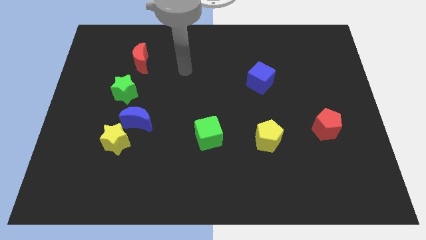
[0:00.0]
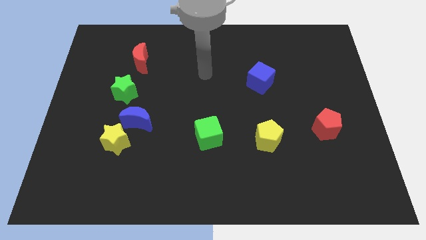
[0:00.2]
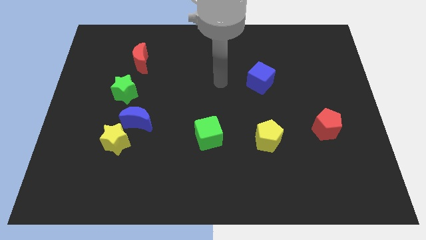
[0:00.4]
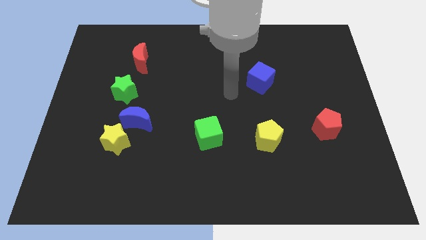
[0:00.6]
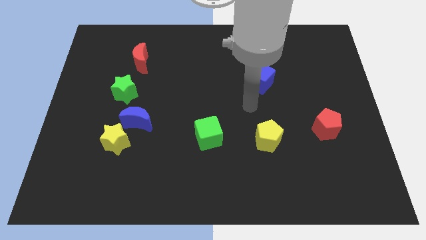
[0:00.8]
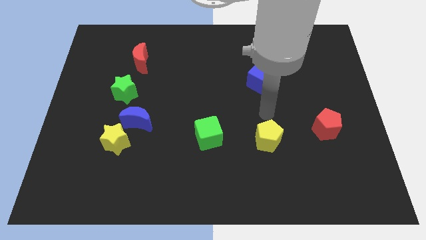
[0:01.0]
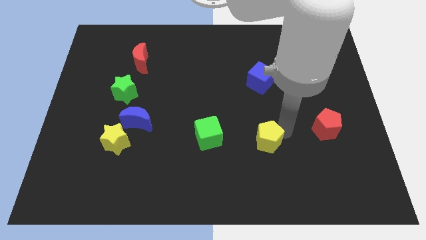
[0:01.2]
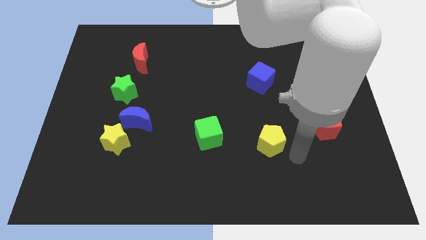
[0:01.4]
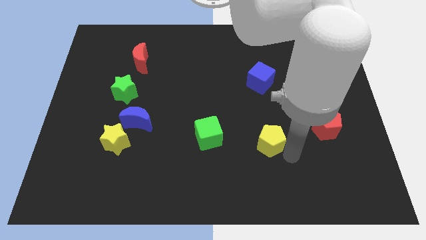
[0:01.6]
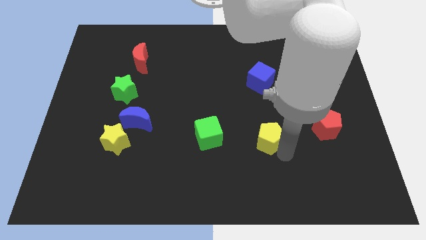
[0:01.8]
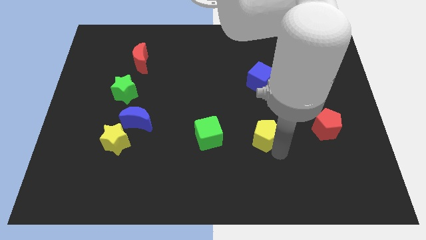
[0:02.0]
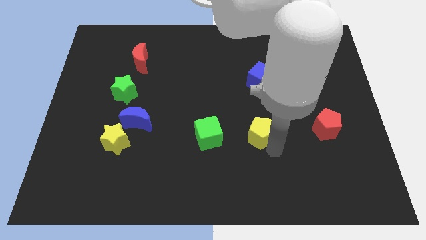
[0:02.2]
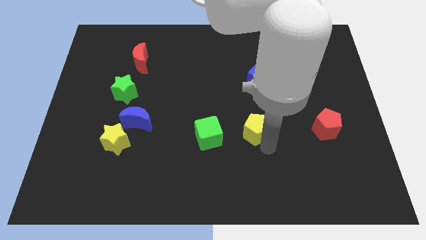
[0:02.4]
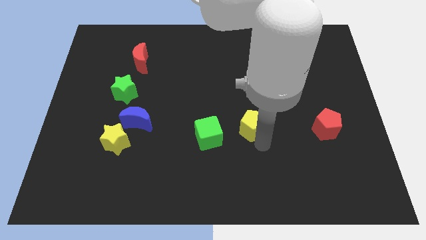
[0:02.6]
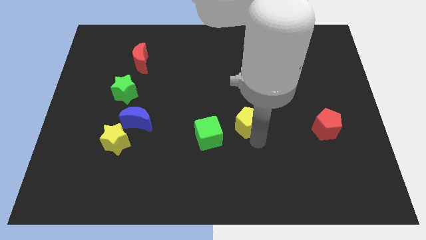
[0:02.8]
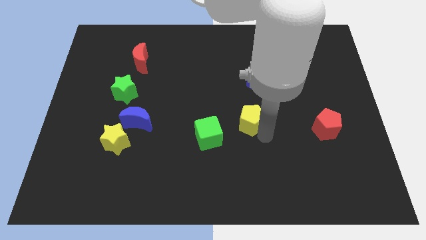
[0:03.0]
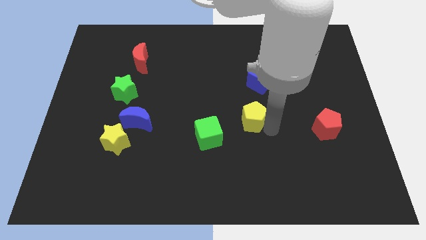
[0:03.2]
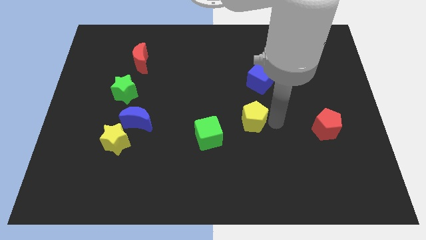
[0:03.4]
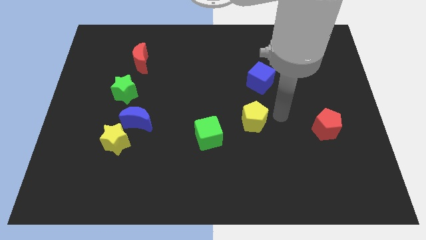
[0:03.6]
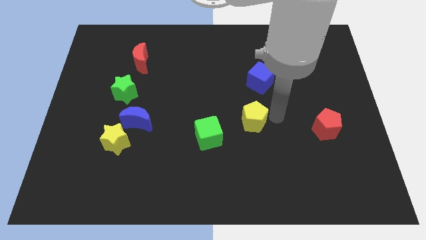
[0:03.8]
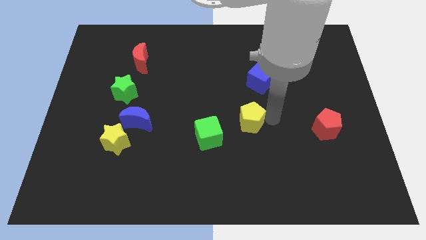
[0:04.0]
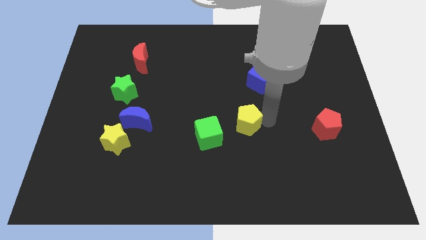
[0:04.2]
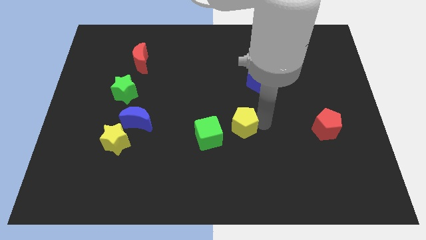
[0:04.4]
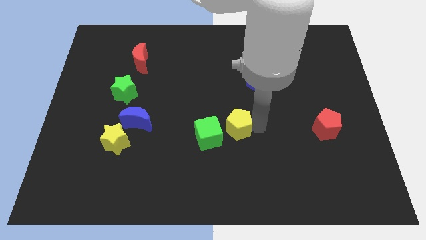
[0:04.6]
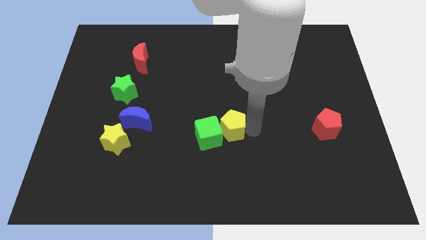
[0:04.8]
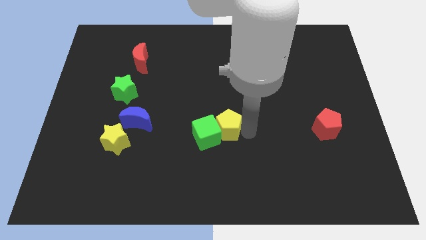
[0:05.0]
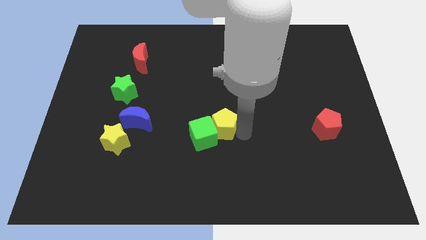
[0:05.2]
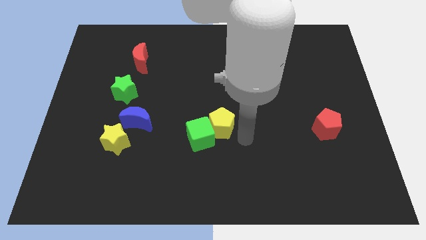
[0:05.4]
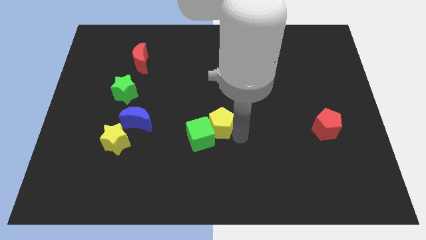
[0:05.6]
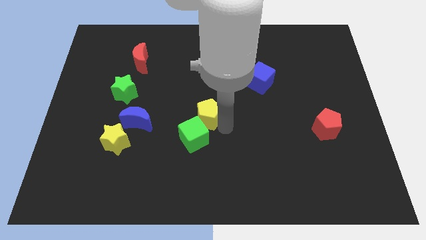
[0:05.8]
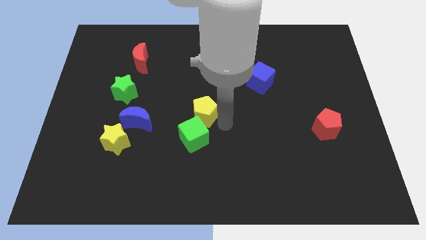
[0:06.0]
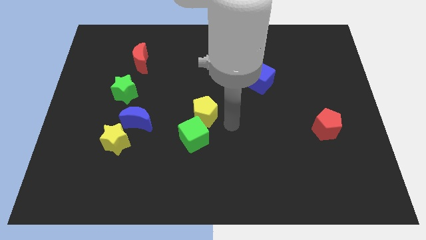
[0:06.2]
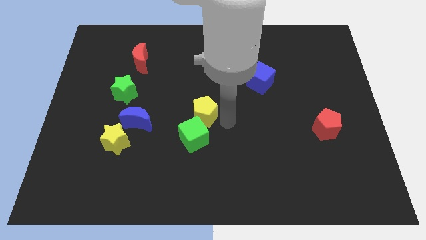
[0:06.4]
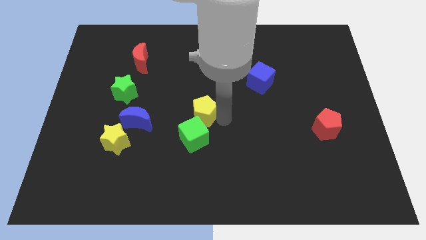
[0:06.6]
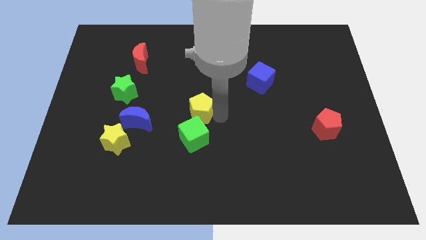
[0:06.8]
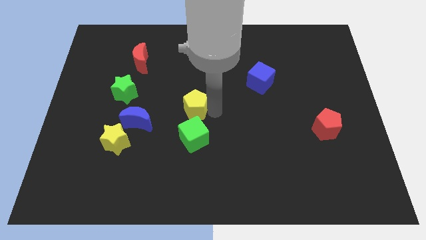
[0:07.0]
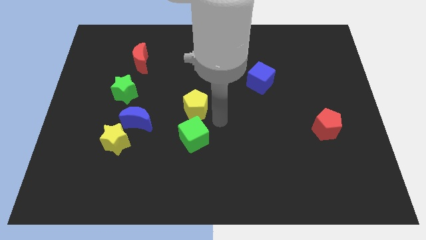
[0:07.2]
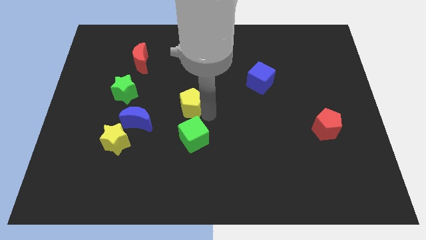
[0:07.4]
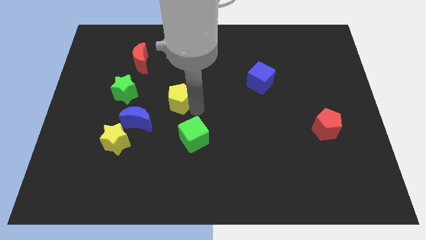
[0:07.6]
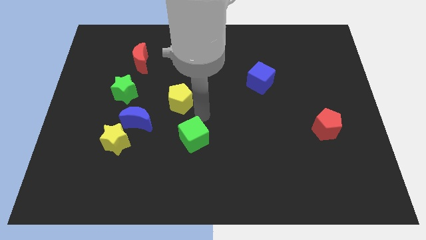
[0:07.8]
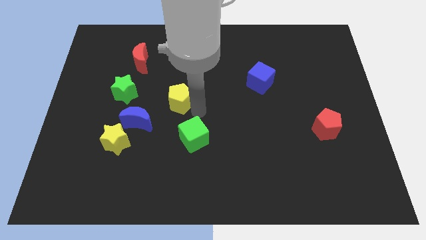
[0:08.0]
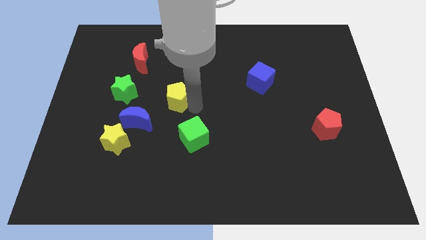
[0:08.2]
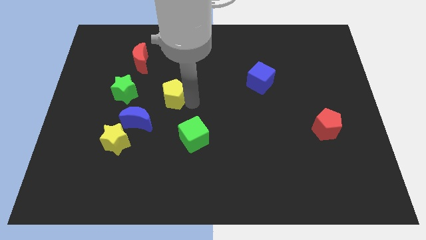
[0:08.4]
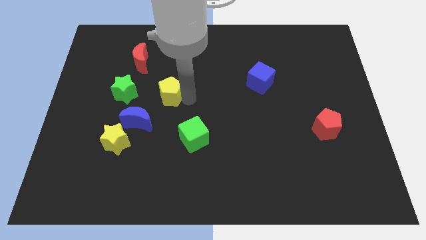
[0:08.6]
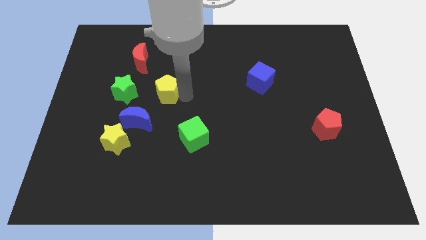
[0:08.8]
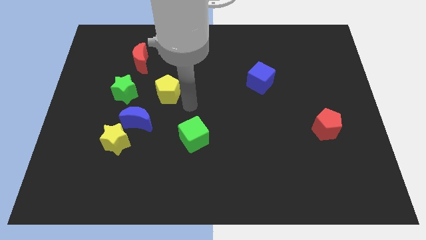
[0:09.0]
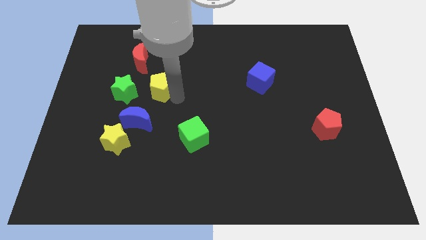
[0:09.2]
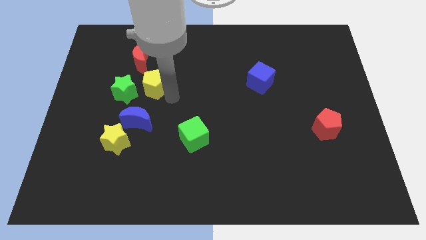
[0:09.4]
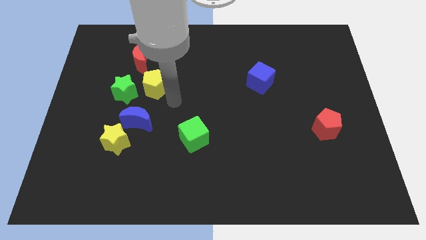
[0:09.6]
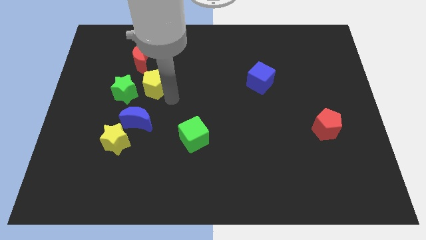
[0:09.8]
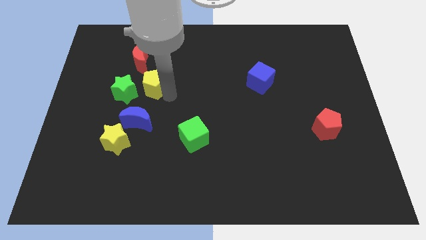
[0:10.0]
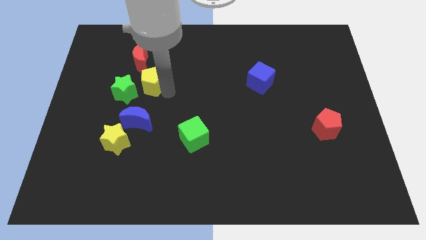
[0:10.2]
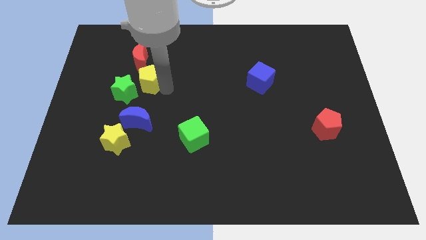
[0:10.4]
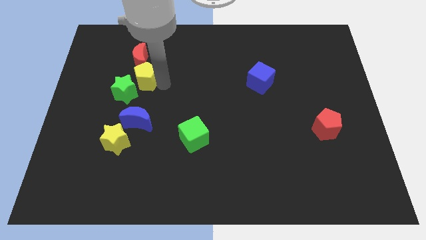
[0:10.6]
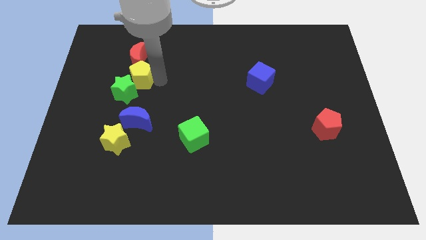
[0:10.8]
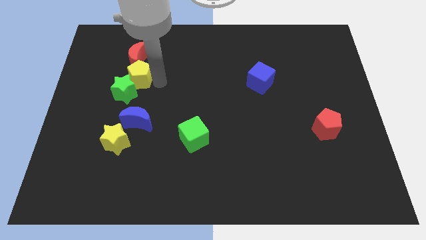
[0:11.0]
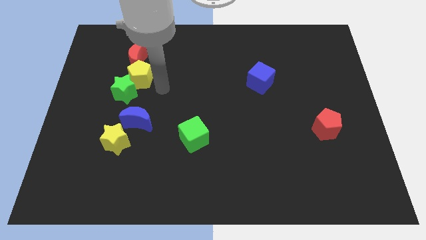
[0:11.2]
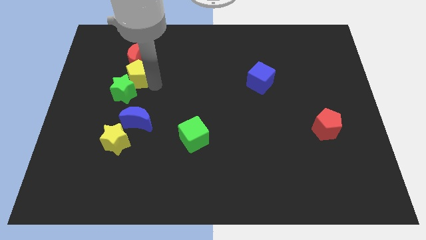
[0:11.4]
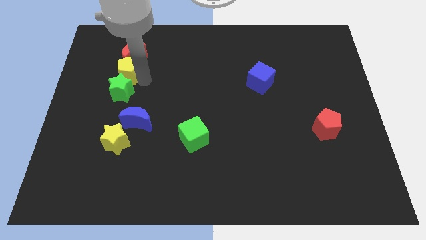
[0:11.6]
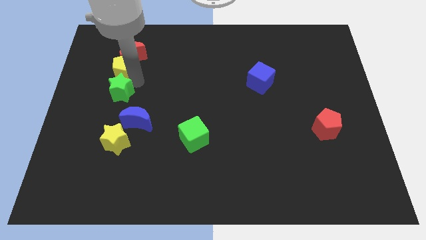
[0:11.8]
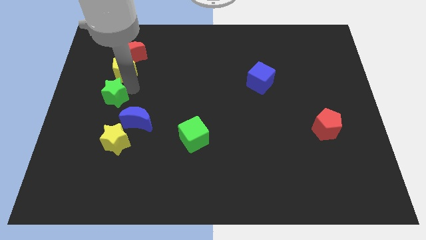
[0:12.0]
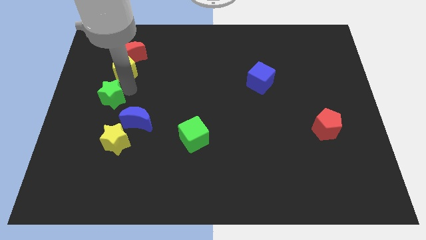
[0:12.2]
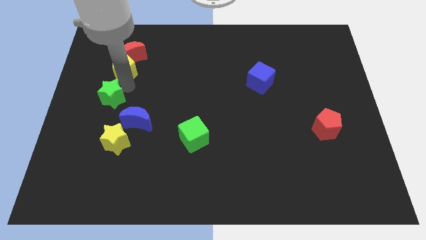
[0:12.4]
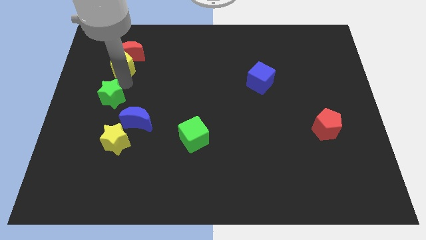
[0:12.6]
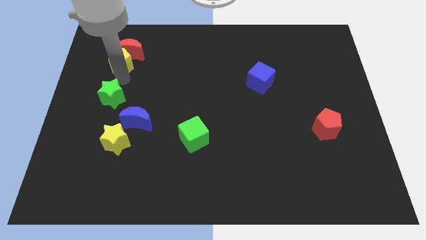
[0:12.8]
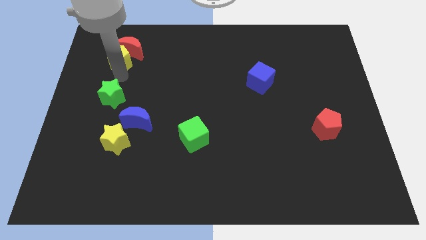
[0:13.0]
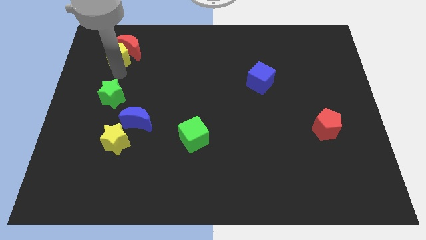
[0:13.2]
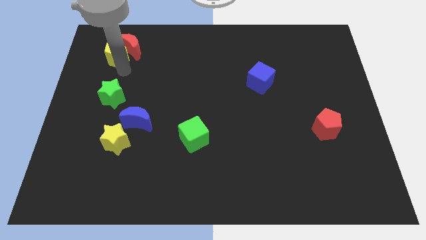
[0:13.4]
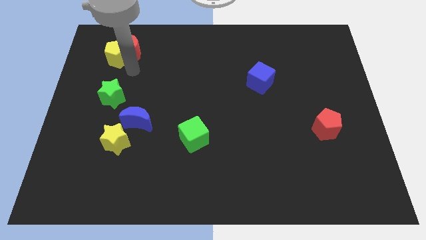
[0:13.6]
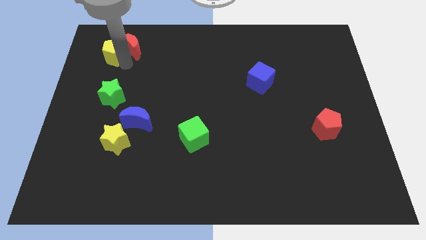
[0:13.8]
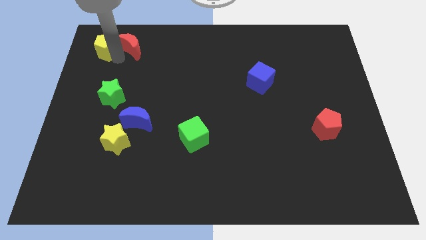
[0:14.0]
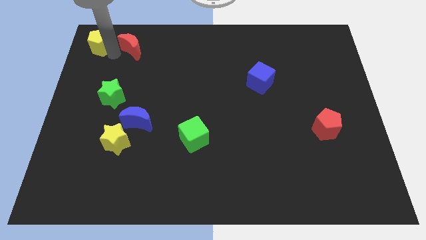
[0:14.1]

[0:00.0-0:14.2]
put the yellow pentagon to the top left
